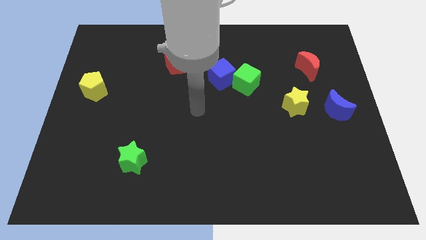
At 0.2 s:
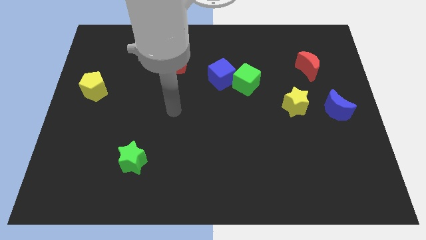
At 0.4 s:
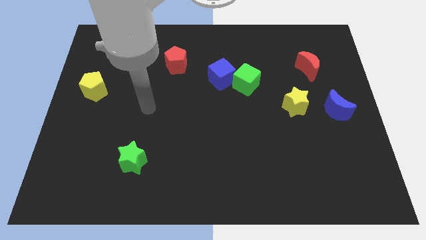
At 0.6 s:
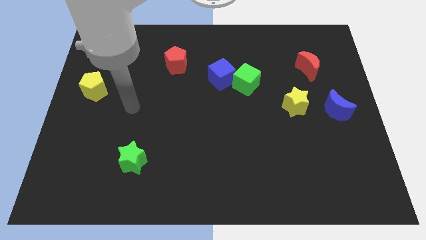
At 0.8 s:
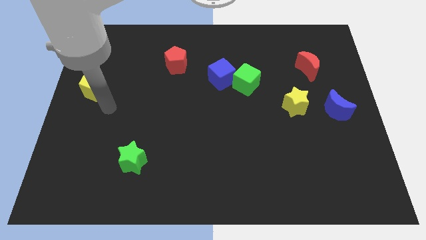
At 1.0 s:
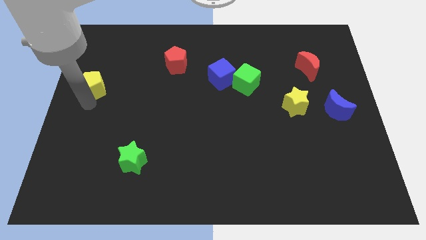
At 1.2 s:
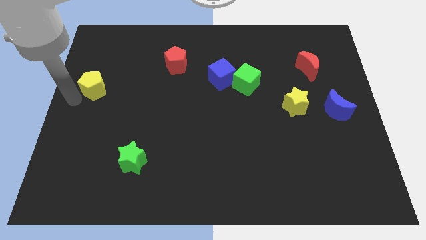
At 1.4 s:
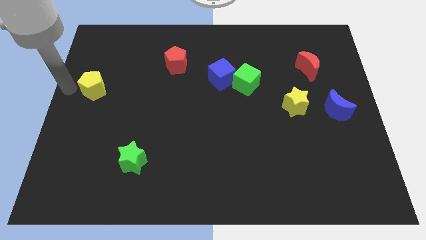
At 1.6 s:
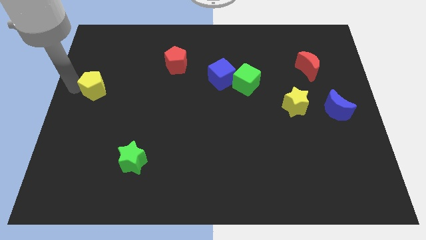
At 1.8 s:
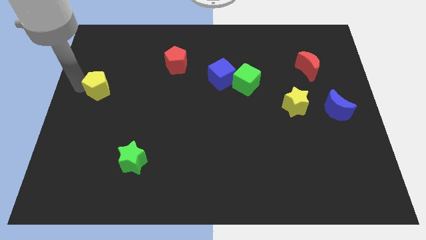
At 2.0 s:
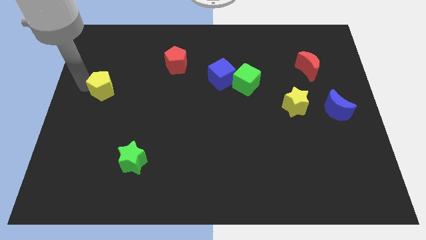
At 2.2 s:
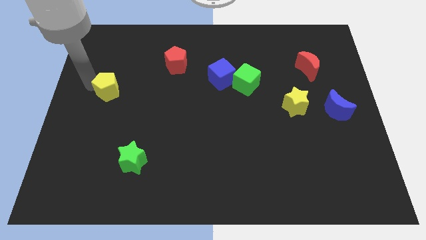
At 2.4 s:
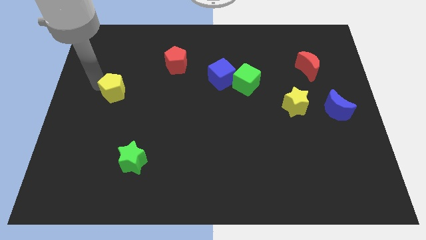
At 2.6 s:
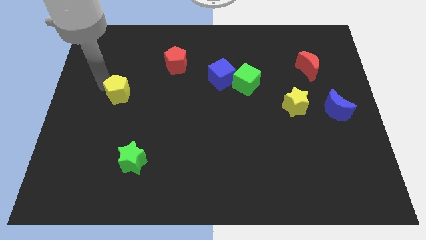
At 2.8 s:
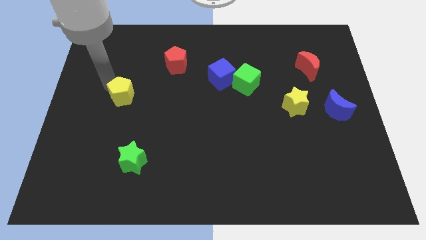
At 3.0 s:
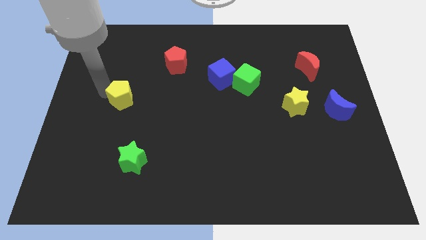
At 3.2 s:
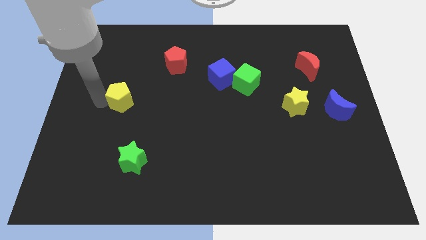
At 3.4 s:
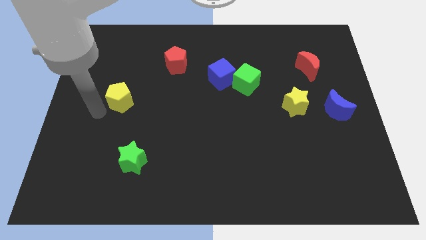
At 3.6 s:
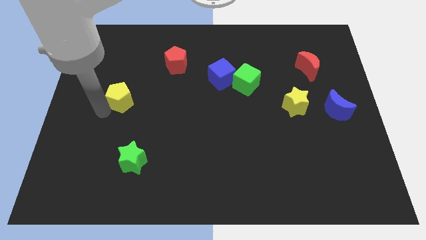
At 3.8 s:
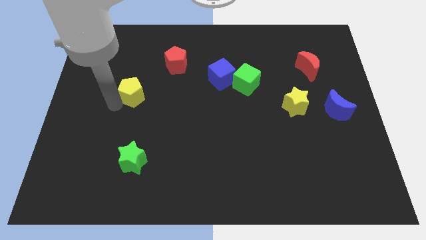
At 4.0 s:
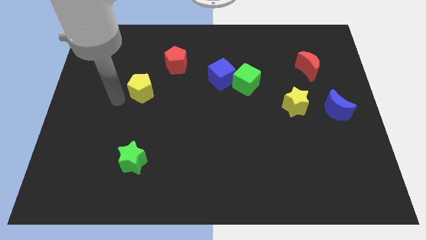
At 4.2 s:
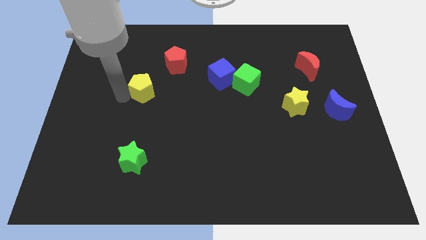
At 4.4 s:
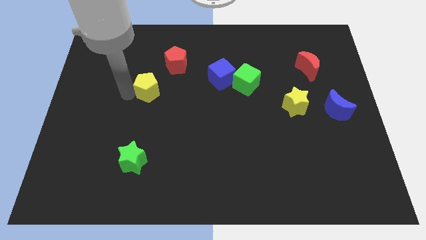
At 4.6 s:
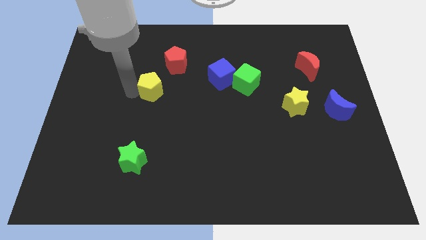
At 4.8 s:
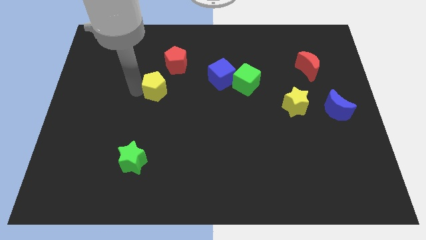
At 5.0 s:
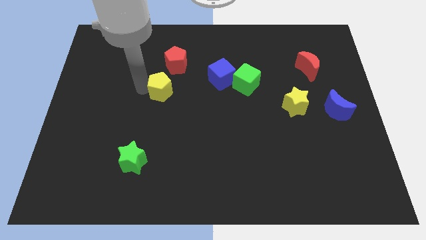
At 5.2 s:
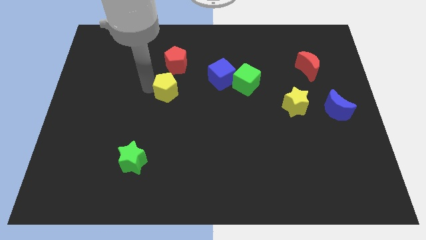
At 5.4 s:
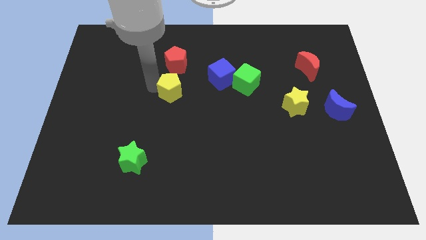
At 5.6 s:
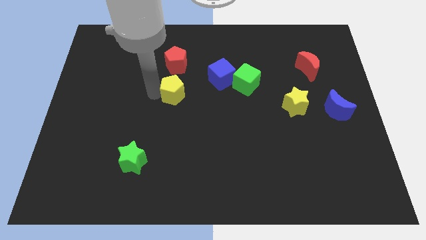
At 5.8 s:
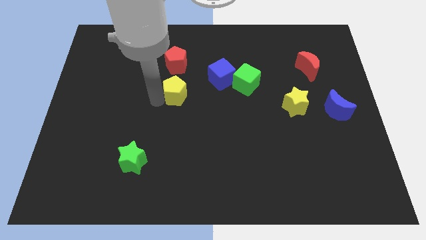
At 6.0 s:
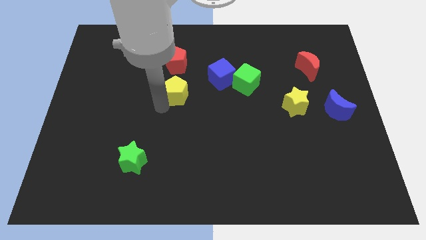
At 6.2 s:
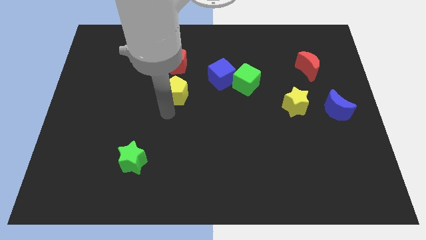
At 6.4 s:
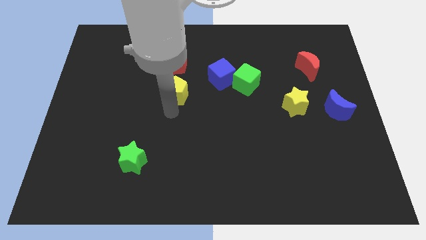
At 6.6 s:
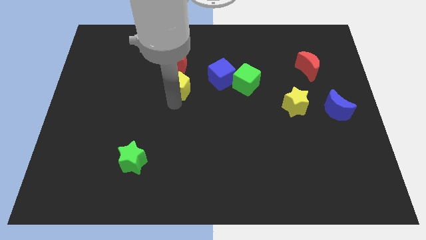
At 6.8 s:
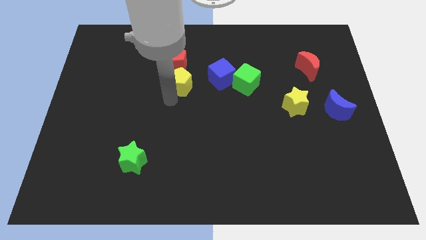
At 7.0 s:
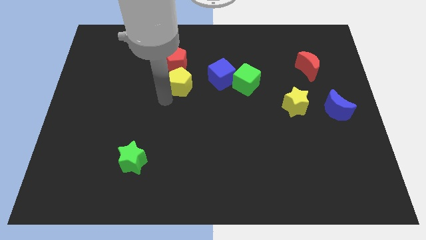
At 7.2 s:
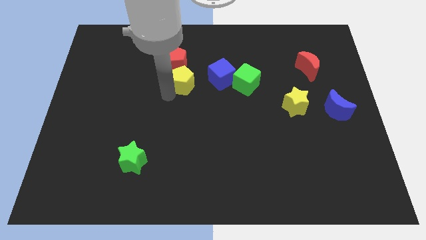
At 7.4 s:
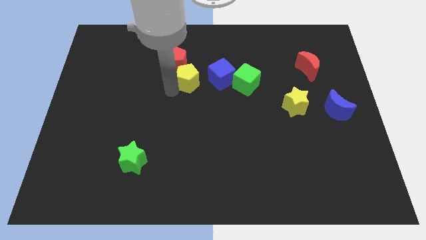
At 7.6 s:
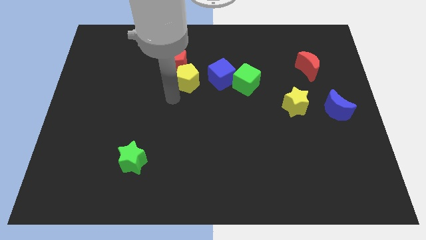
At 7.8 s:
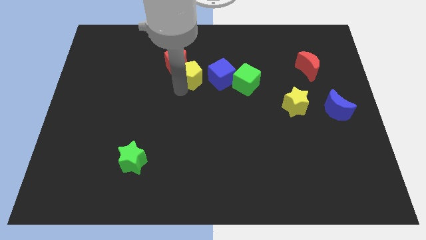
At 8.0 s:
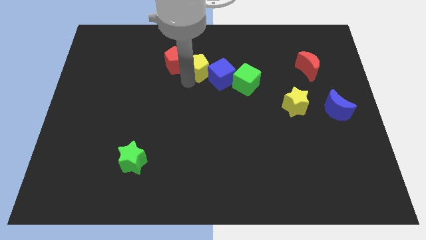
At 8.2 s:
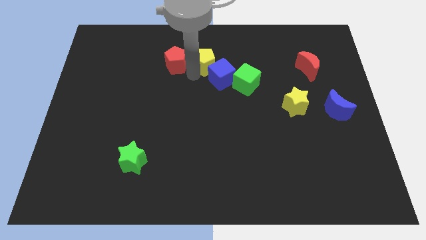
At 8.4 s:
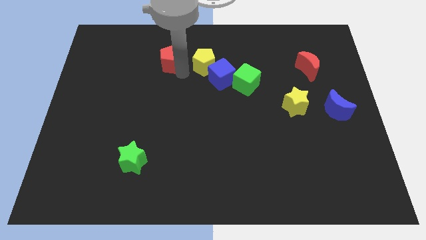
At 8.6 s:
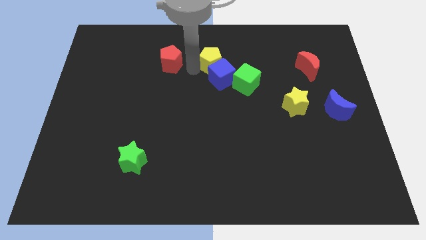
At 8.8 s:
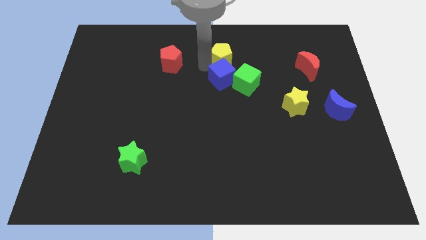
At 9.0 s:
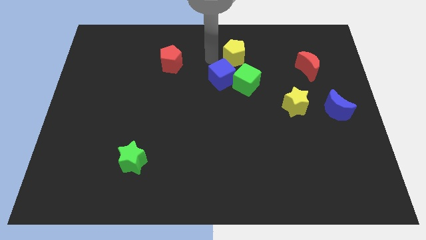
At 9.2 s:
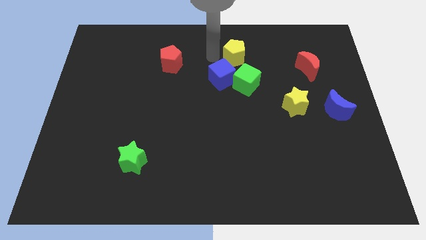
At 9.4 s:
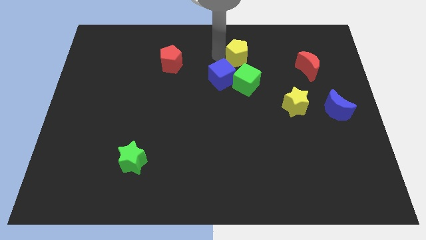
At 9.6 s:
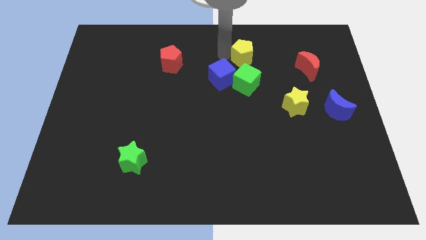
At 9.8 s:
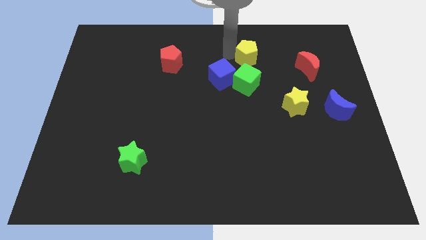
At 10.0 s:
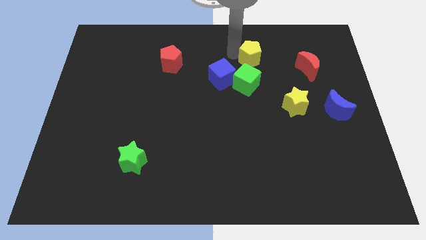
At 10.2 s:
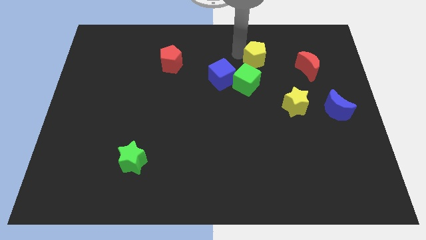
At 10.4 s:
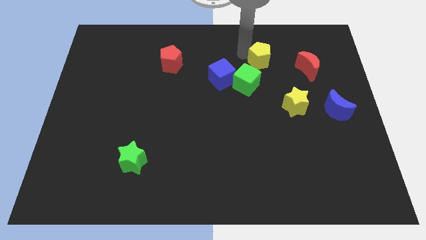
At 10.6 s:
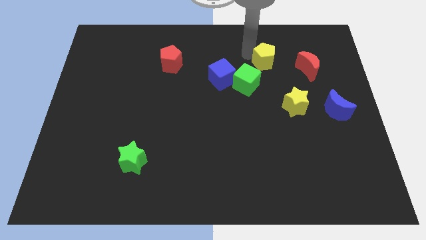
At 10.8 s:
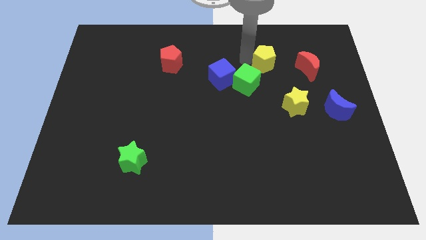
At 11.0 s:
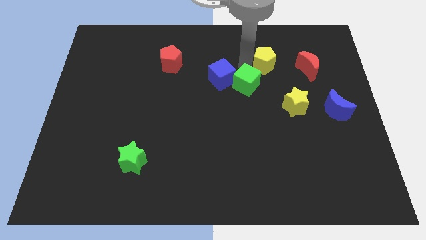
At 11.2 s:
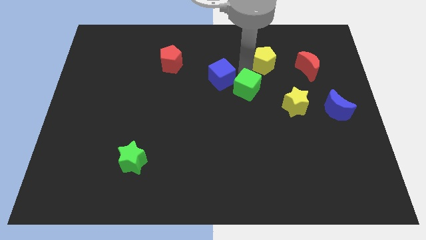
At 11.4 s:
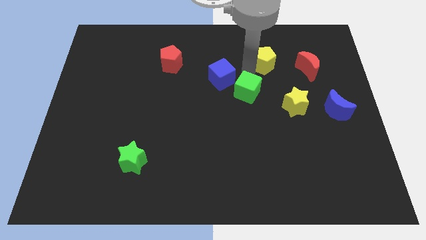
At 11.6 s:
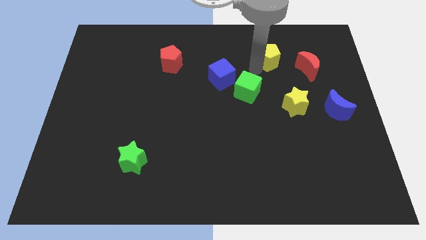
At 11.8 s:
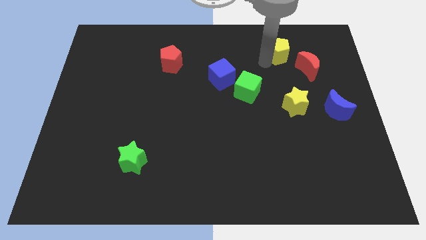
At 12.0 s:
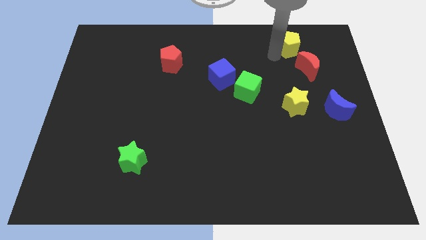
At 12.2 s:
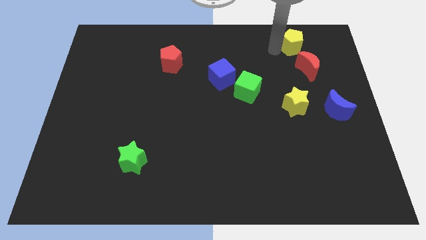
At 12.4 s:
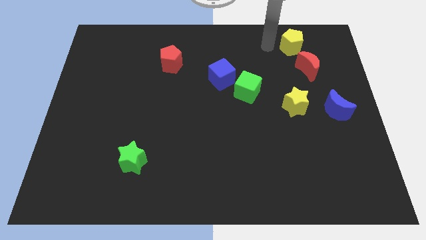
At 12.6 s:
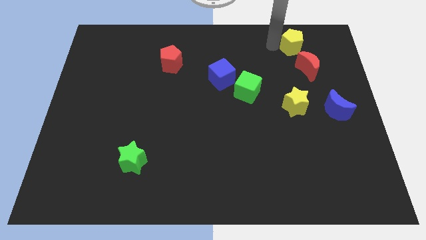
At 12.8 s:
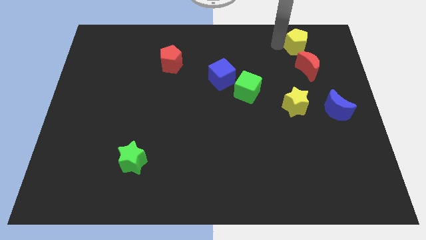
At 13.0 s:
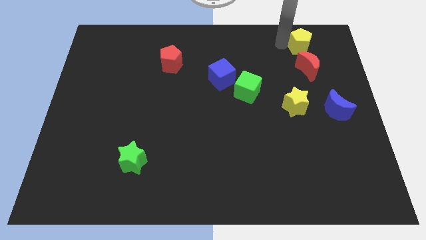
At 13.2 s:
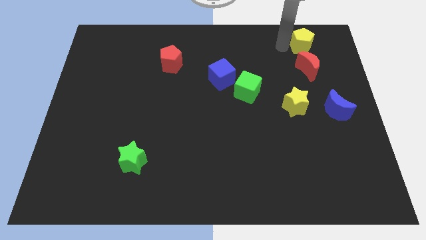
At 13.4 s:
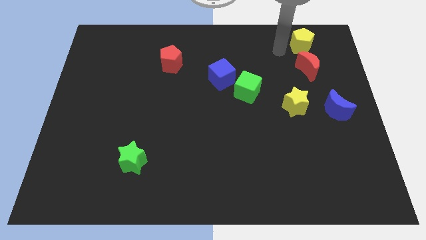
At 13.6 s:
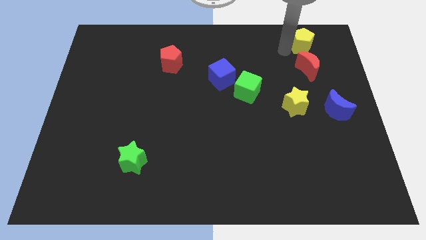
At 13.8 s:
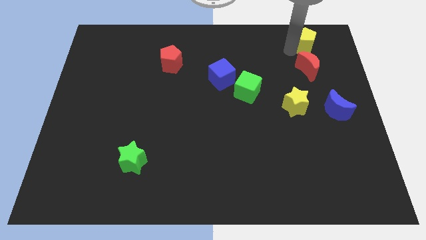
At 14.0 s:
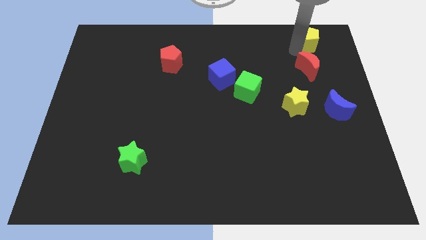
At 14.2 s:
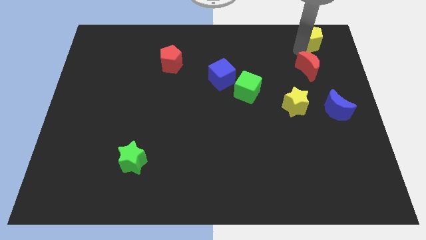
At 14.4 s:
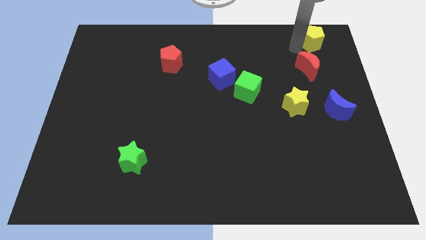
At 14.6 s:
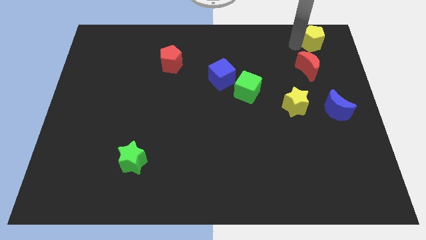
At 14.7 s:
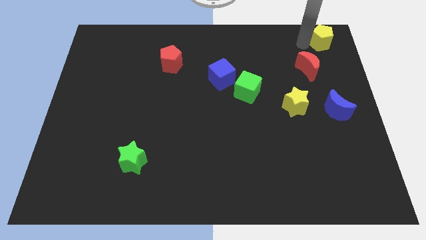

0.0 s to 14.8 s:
push the yellow pentagon to the top right corner
